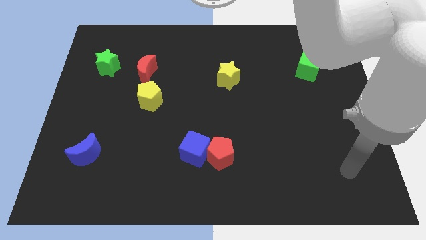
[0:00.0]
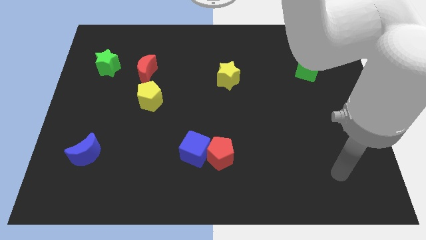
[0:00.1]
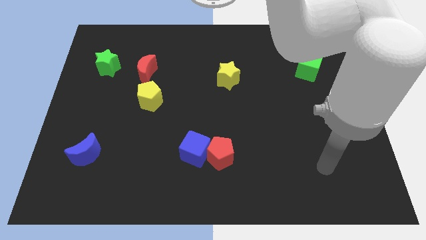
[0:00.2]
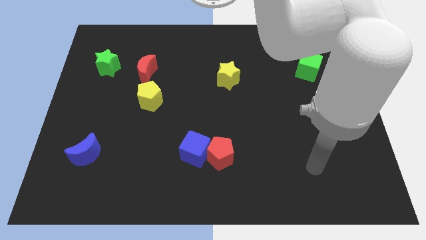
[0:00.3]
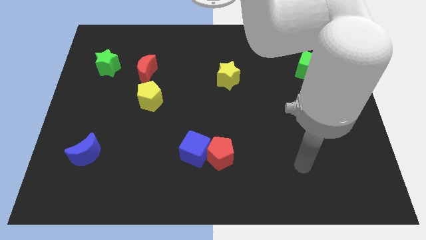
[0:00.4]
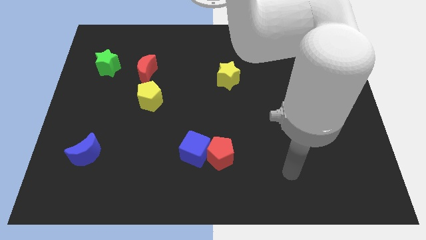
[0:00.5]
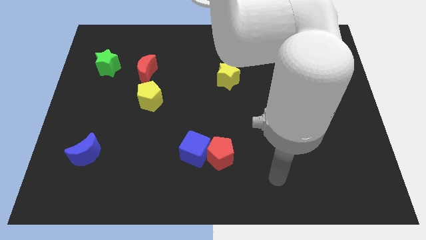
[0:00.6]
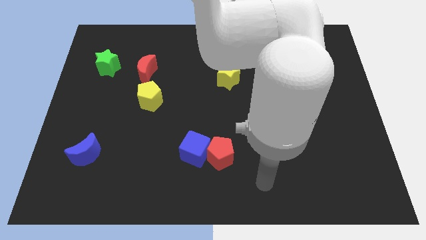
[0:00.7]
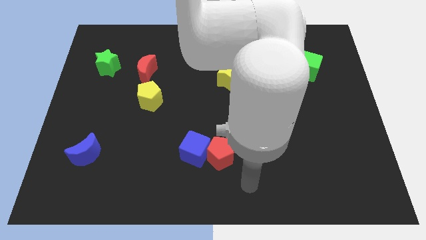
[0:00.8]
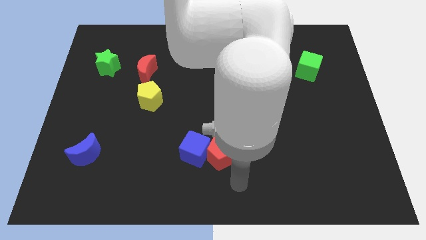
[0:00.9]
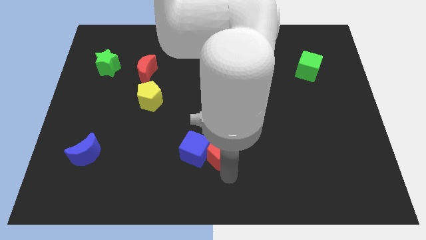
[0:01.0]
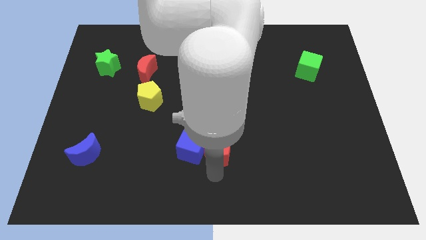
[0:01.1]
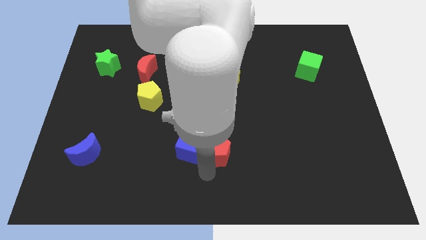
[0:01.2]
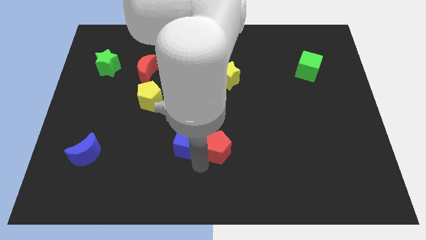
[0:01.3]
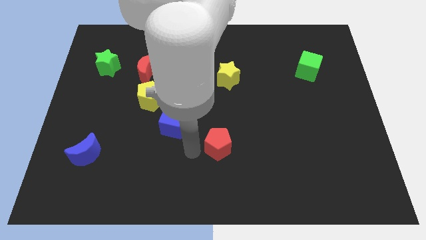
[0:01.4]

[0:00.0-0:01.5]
separate the red pentagon from the blue cube

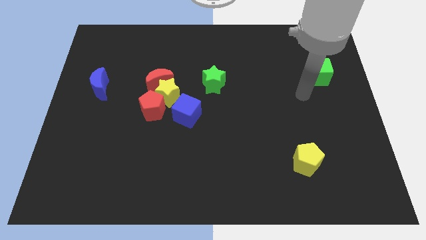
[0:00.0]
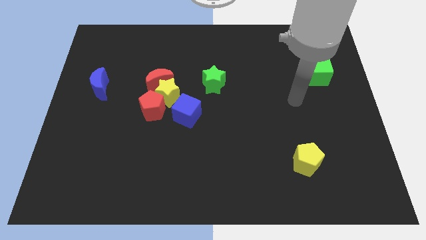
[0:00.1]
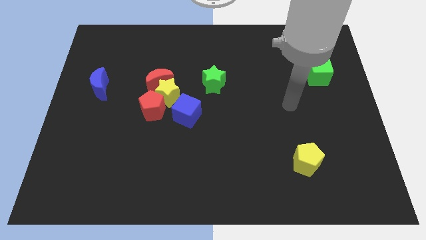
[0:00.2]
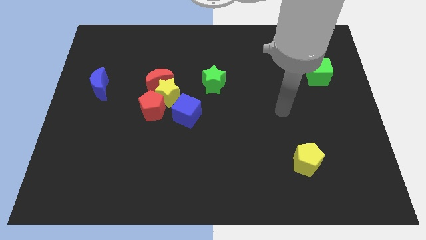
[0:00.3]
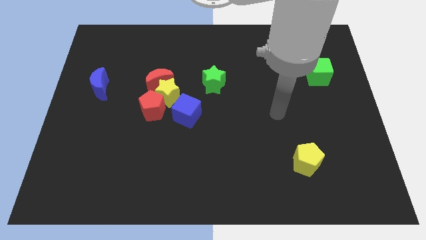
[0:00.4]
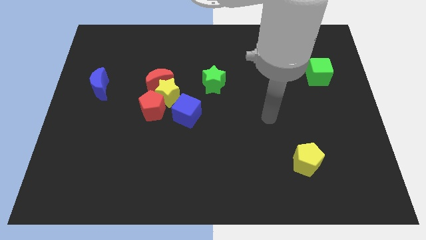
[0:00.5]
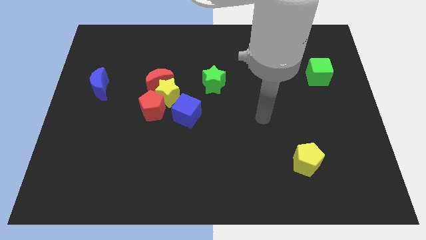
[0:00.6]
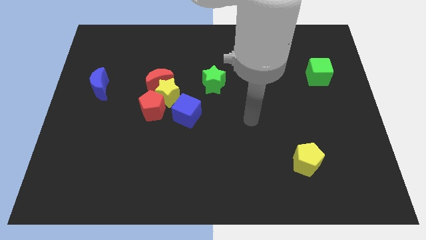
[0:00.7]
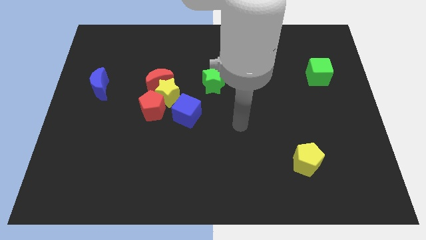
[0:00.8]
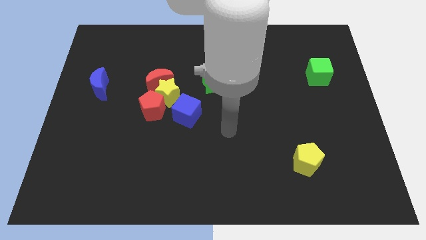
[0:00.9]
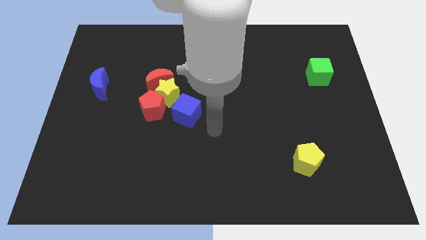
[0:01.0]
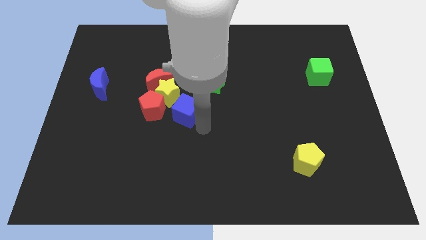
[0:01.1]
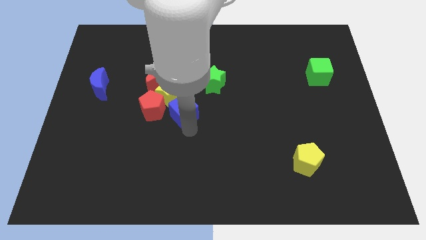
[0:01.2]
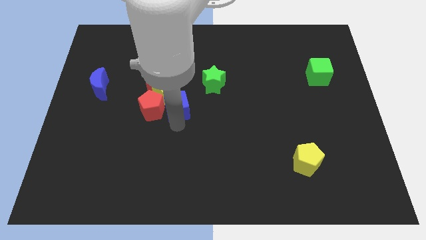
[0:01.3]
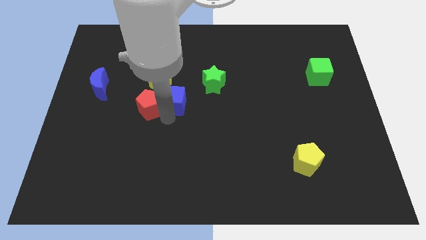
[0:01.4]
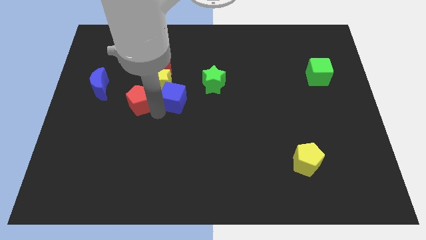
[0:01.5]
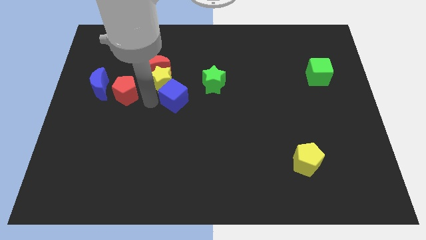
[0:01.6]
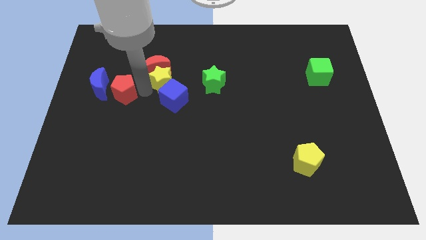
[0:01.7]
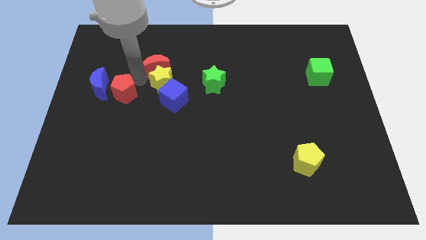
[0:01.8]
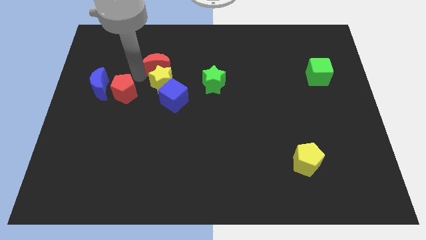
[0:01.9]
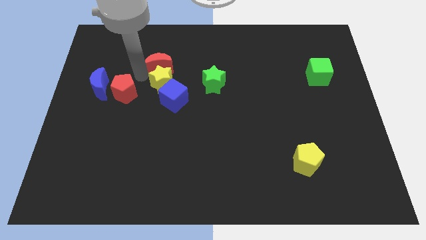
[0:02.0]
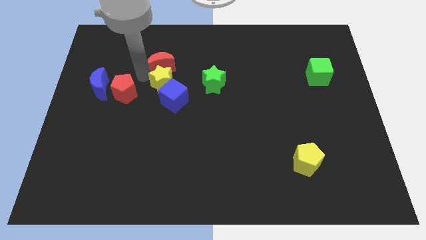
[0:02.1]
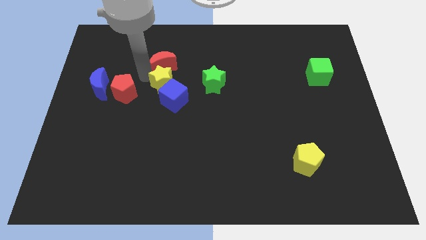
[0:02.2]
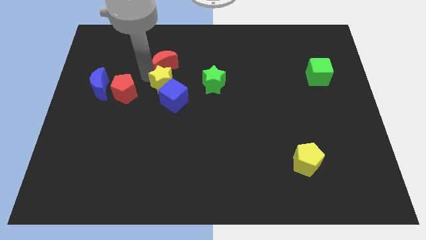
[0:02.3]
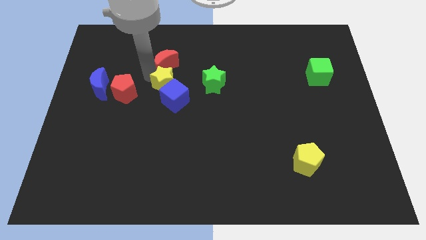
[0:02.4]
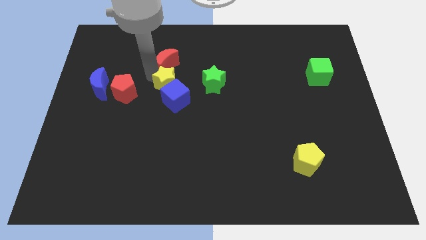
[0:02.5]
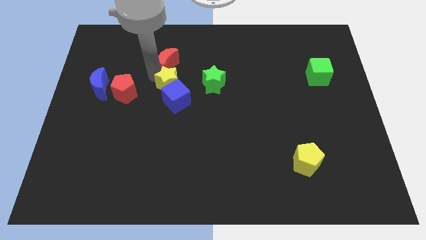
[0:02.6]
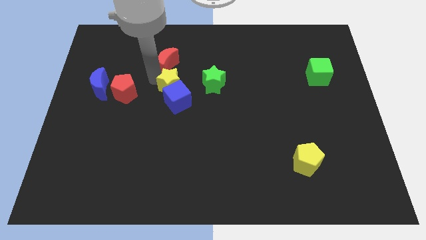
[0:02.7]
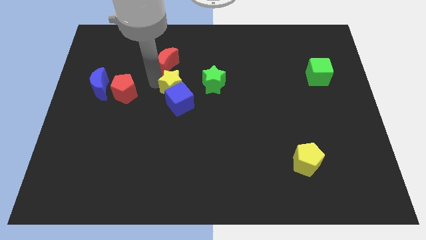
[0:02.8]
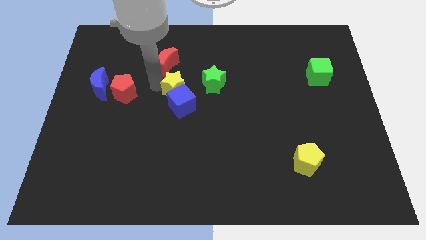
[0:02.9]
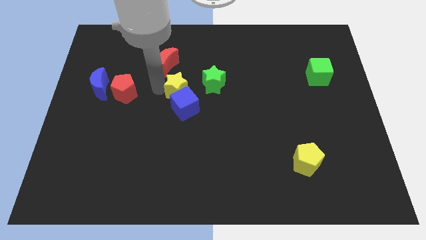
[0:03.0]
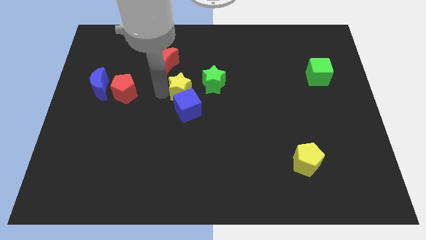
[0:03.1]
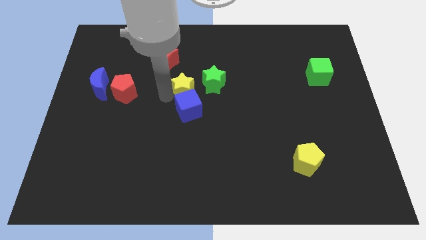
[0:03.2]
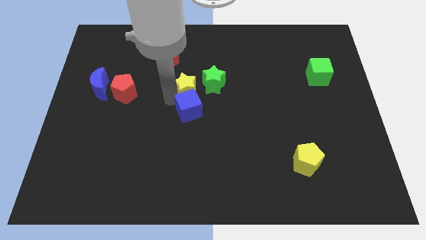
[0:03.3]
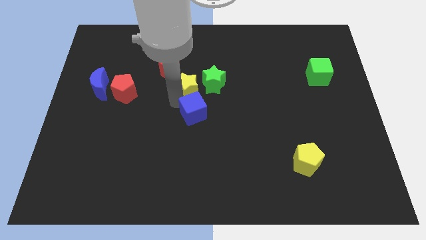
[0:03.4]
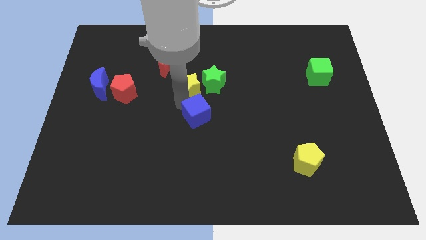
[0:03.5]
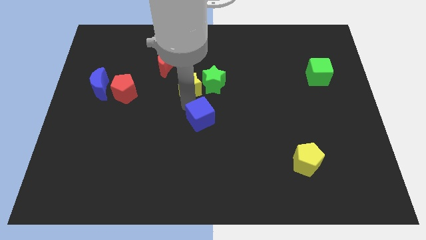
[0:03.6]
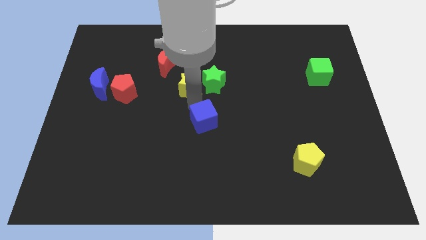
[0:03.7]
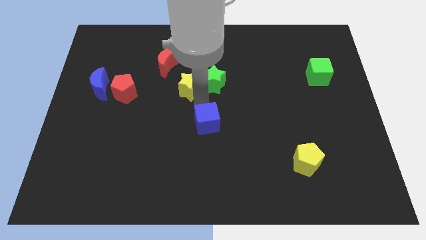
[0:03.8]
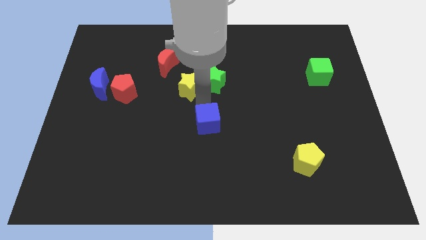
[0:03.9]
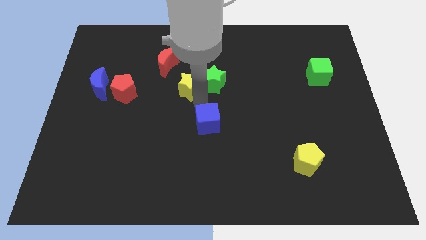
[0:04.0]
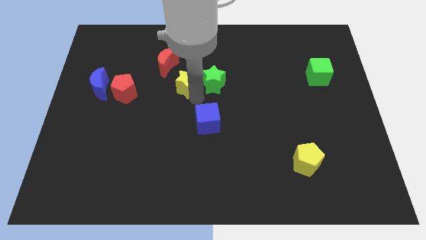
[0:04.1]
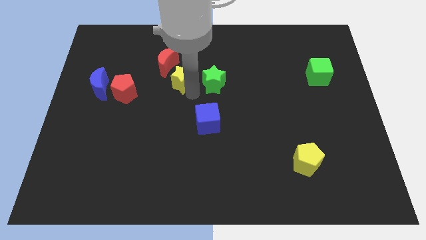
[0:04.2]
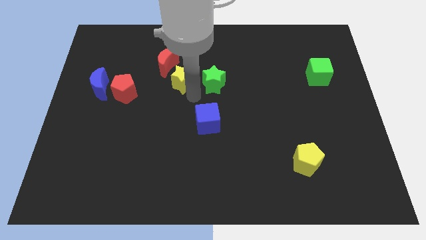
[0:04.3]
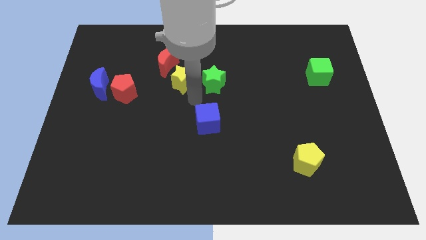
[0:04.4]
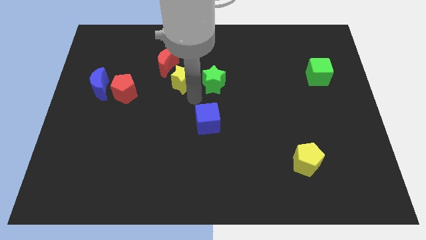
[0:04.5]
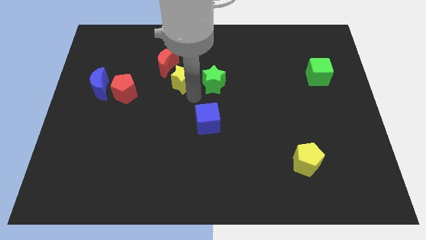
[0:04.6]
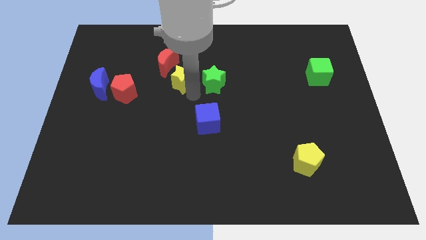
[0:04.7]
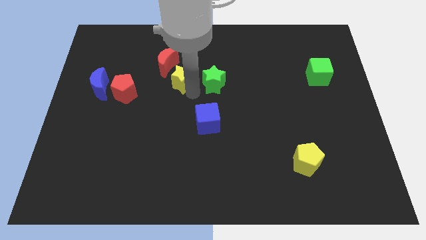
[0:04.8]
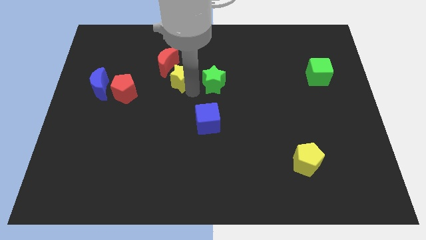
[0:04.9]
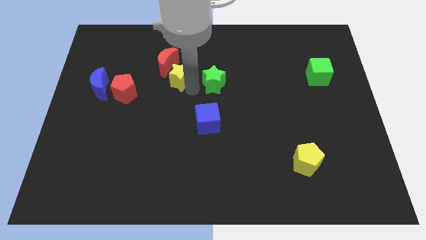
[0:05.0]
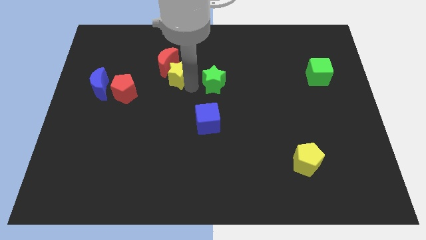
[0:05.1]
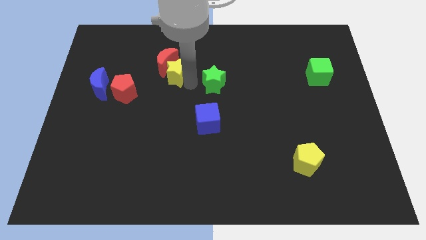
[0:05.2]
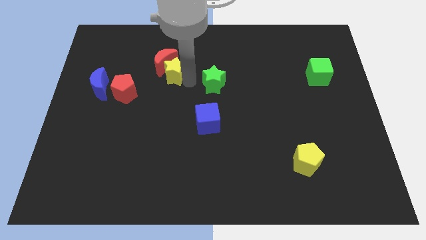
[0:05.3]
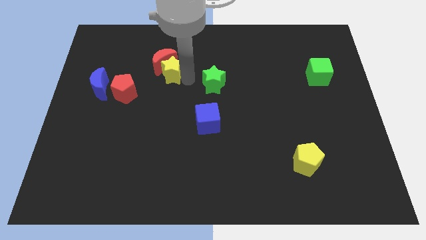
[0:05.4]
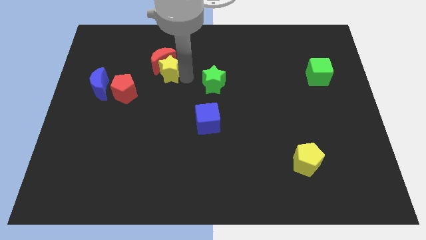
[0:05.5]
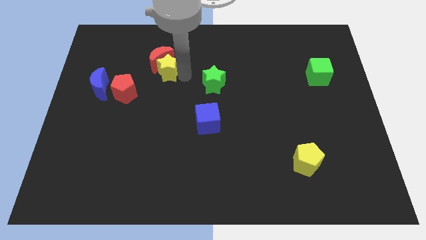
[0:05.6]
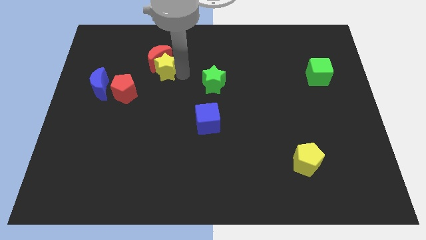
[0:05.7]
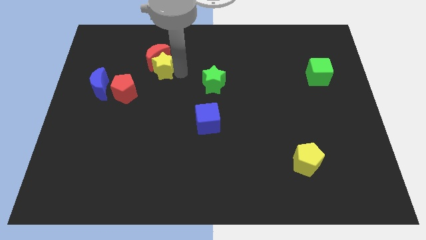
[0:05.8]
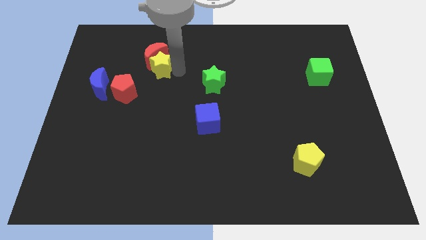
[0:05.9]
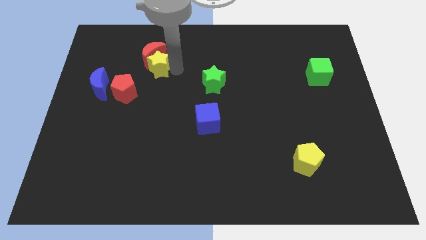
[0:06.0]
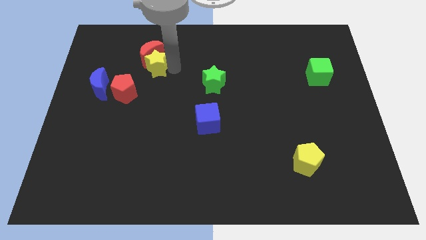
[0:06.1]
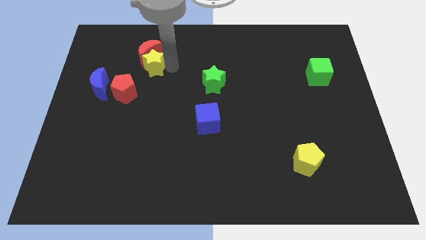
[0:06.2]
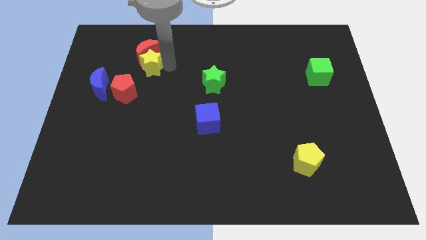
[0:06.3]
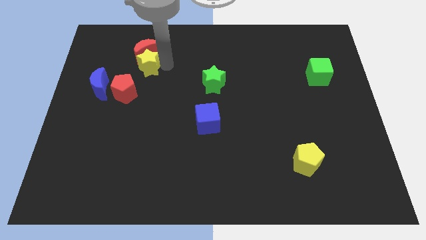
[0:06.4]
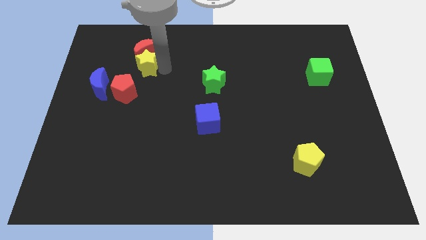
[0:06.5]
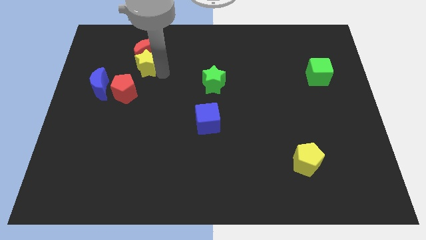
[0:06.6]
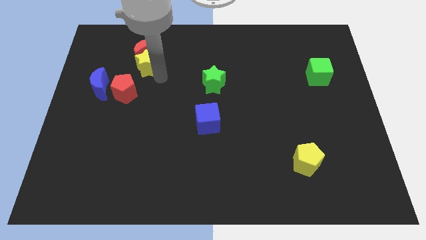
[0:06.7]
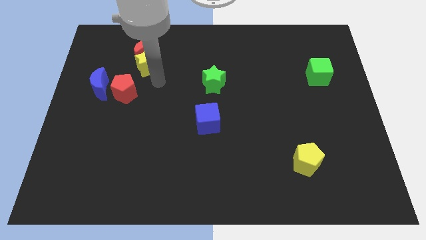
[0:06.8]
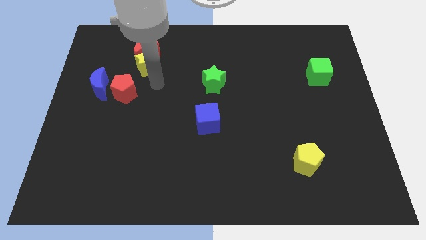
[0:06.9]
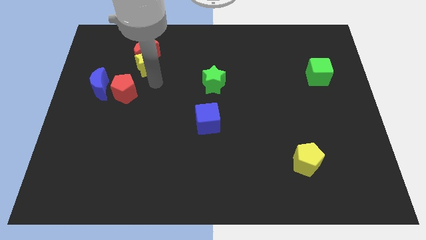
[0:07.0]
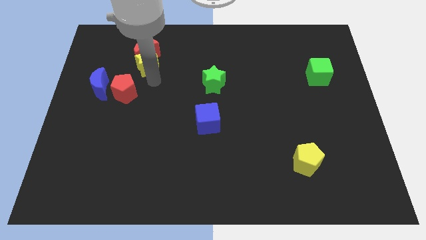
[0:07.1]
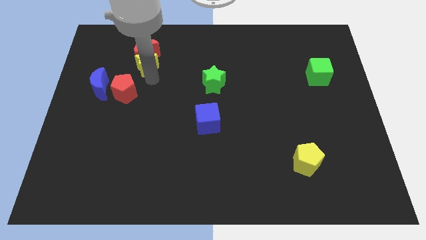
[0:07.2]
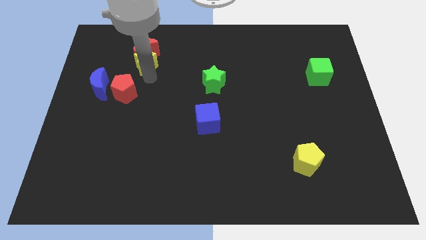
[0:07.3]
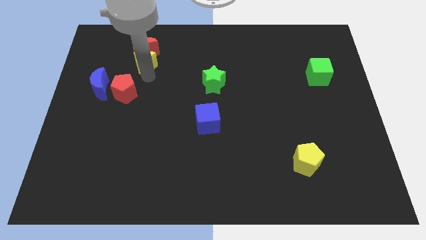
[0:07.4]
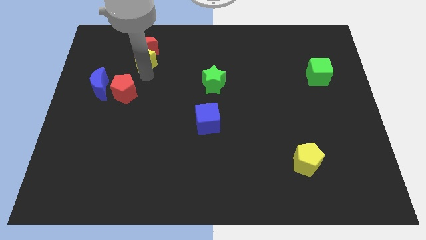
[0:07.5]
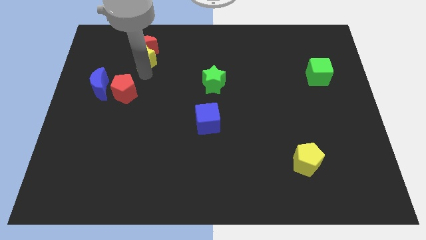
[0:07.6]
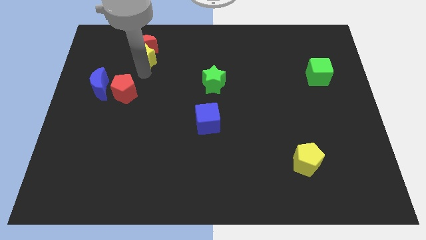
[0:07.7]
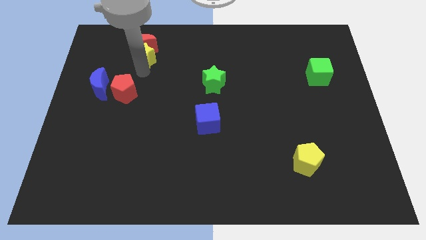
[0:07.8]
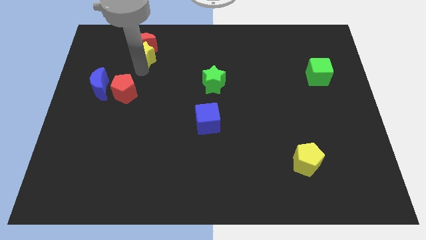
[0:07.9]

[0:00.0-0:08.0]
pull the yellow star apart from the group
